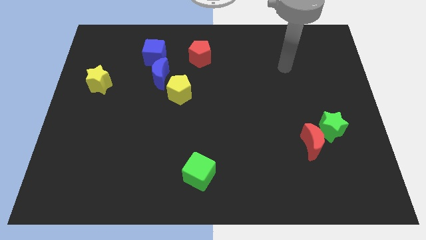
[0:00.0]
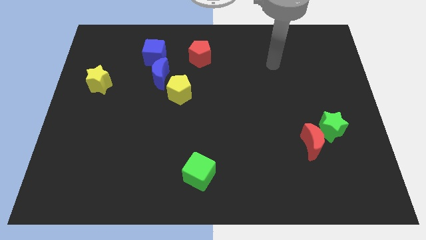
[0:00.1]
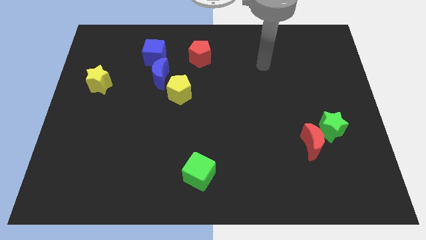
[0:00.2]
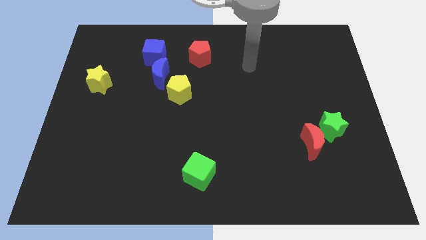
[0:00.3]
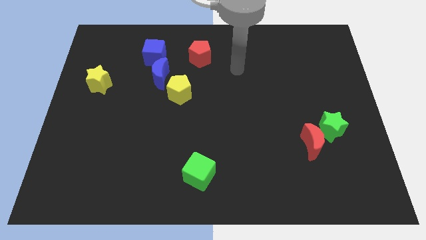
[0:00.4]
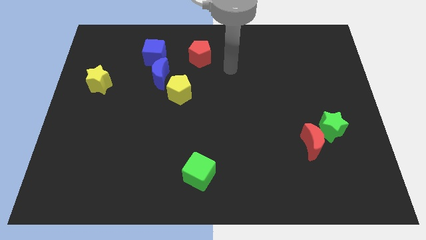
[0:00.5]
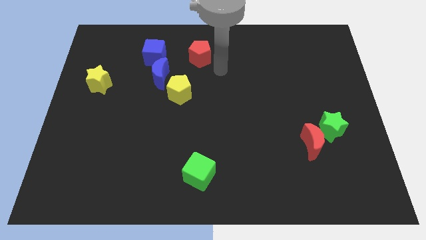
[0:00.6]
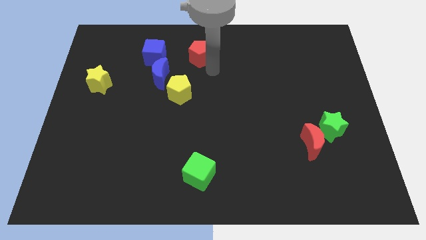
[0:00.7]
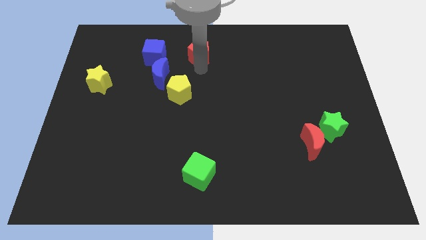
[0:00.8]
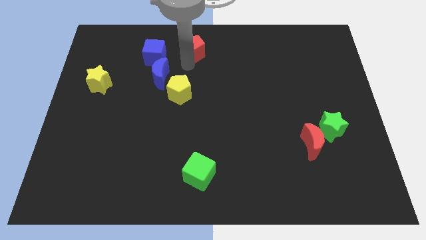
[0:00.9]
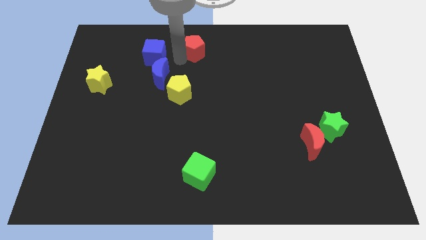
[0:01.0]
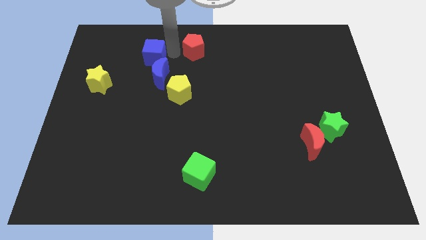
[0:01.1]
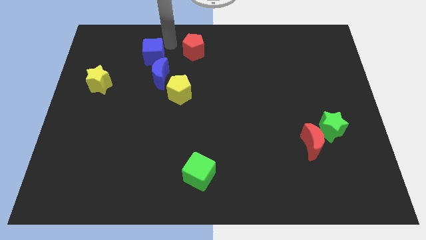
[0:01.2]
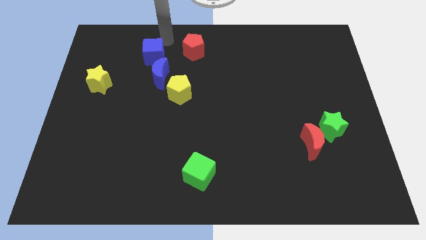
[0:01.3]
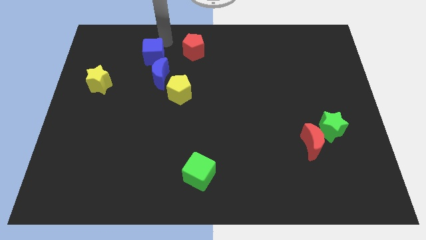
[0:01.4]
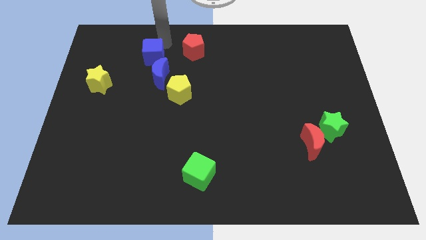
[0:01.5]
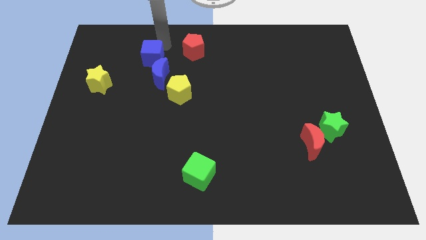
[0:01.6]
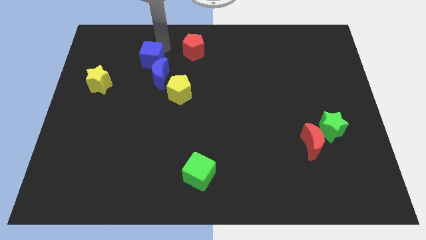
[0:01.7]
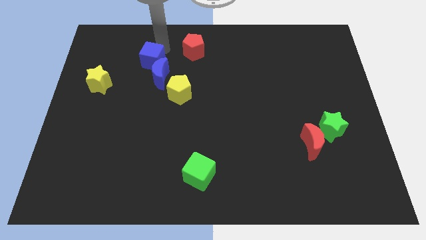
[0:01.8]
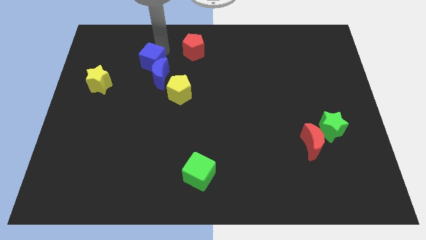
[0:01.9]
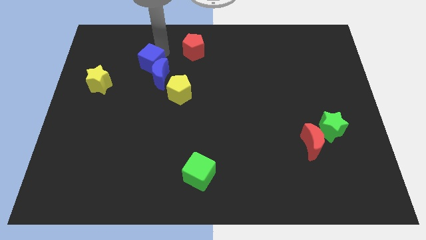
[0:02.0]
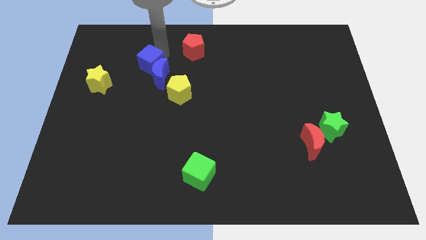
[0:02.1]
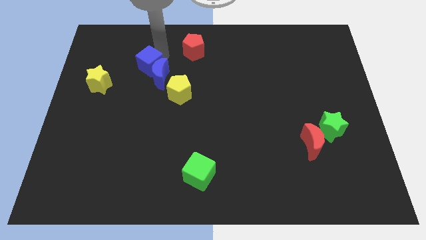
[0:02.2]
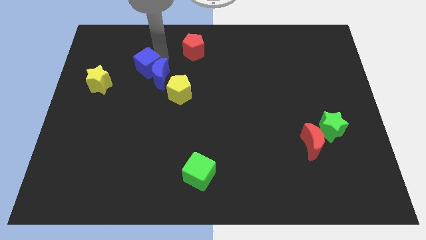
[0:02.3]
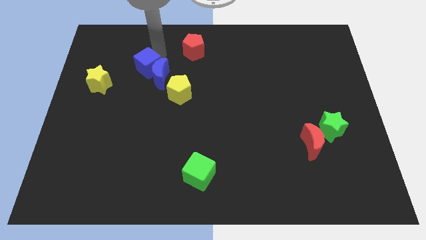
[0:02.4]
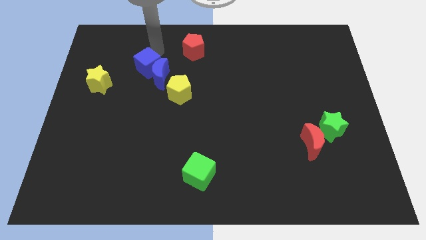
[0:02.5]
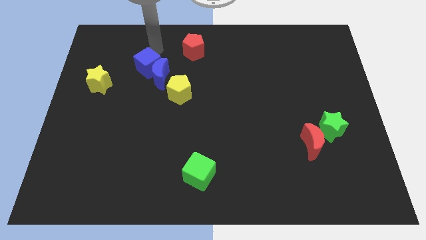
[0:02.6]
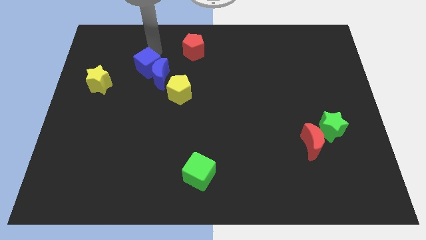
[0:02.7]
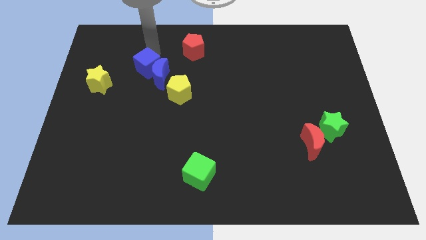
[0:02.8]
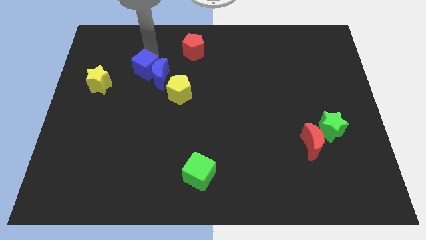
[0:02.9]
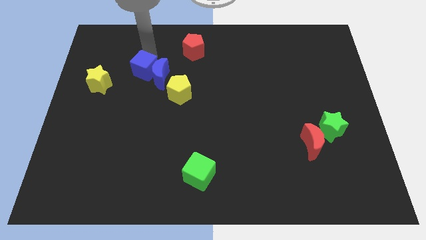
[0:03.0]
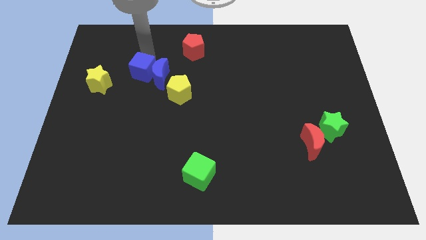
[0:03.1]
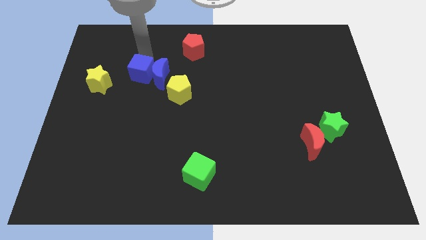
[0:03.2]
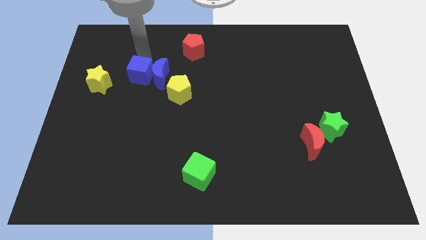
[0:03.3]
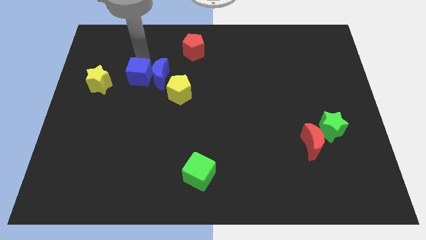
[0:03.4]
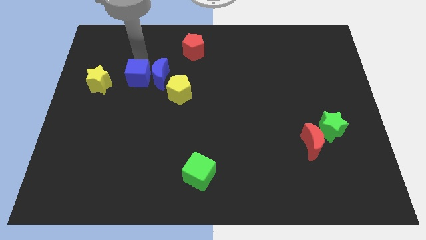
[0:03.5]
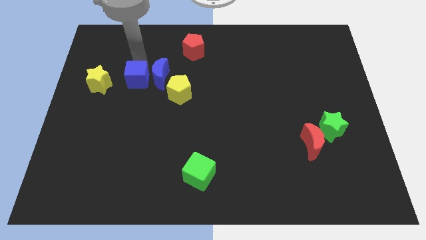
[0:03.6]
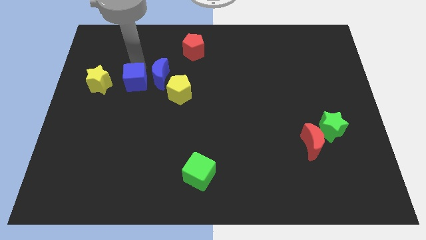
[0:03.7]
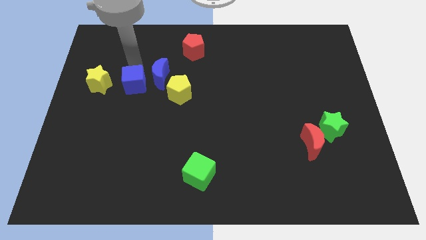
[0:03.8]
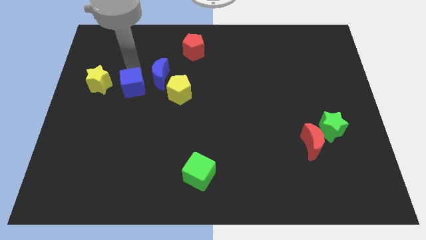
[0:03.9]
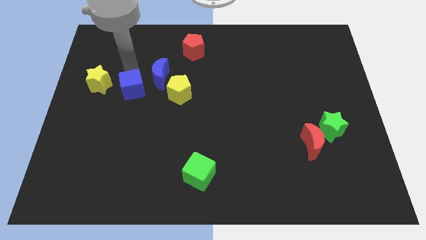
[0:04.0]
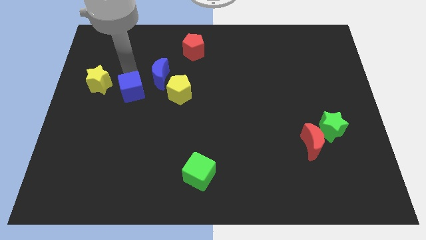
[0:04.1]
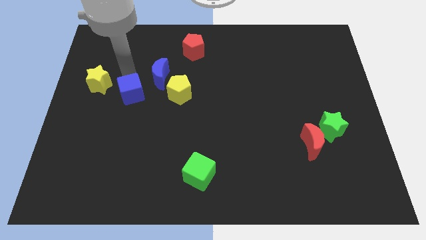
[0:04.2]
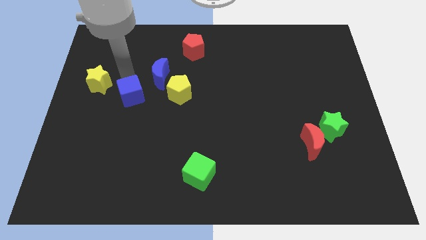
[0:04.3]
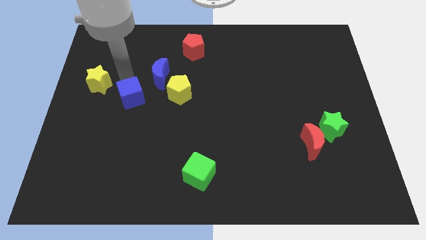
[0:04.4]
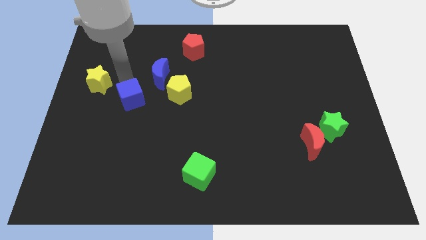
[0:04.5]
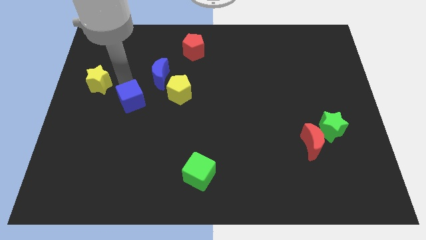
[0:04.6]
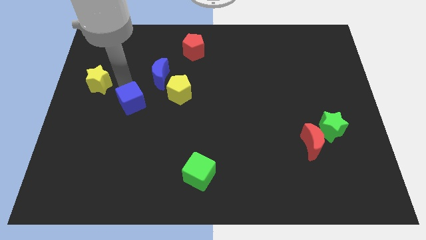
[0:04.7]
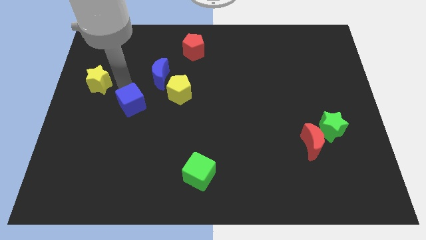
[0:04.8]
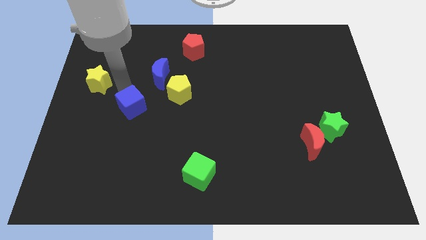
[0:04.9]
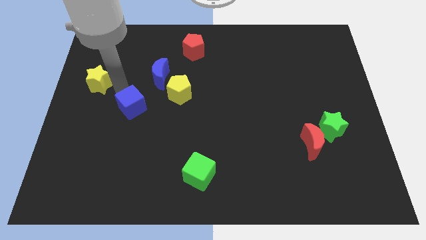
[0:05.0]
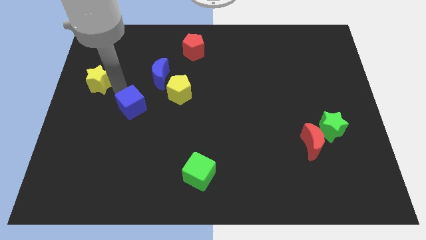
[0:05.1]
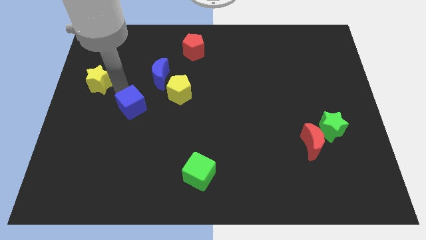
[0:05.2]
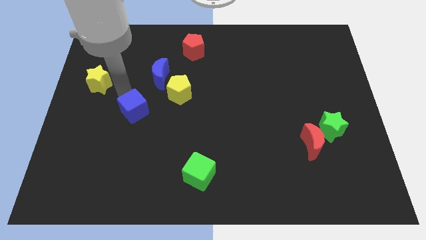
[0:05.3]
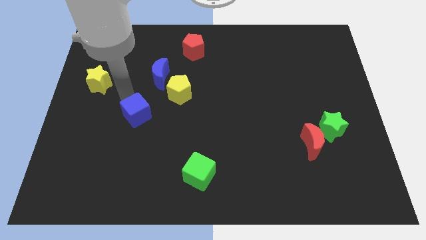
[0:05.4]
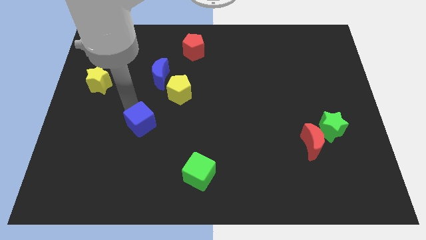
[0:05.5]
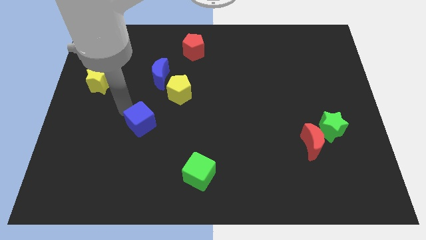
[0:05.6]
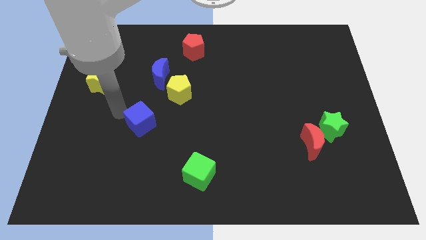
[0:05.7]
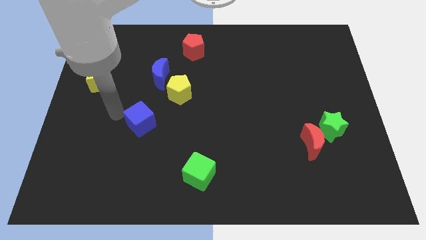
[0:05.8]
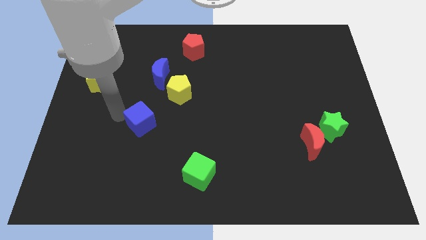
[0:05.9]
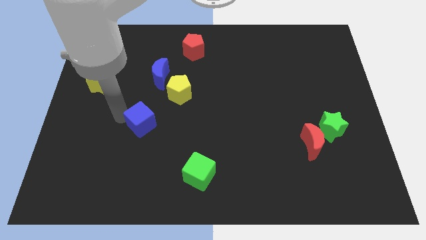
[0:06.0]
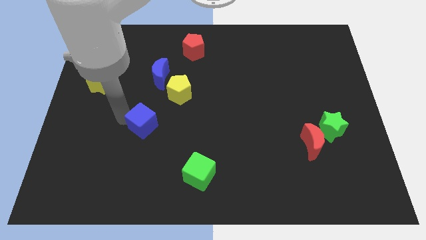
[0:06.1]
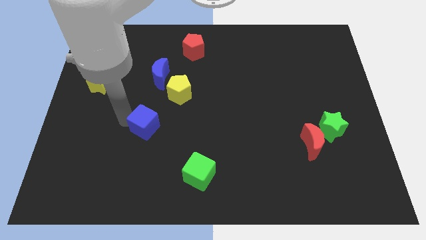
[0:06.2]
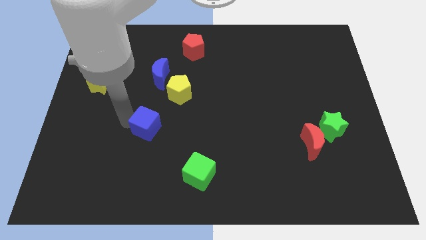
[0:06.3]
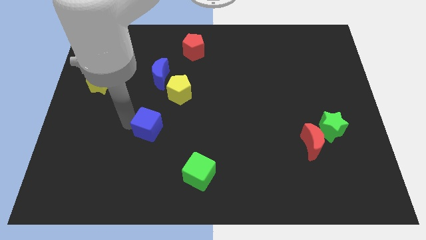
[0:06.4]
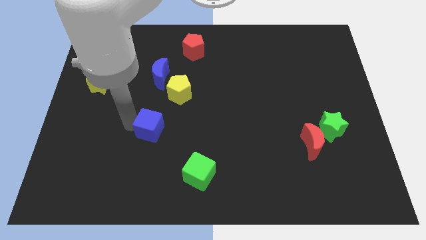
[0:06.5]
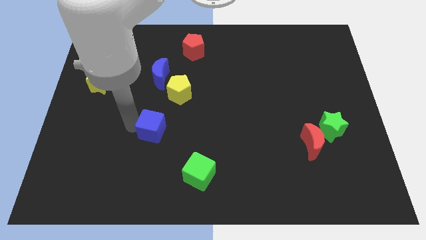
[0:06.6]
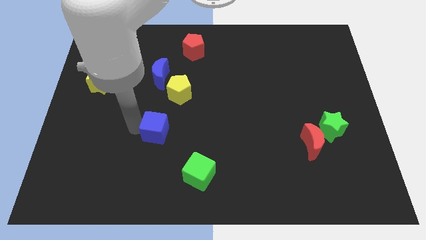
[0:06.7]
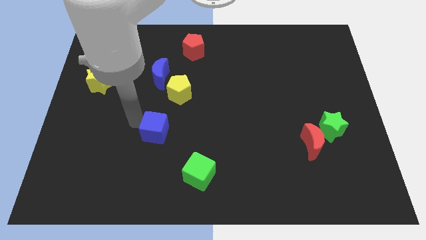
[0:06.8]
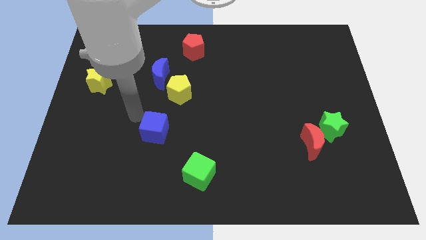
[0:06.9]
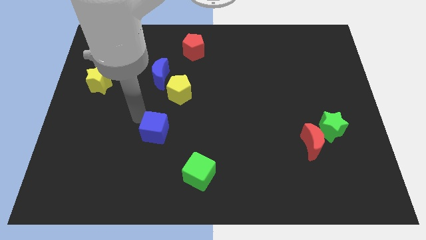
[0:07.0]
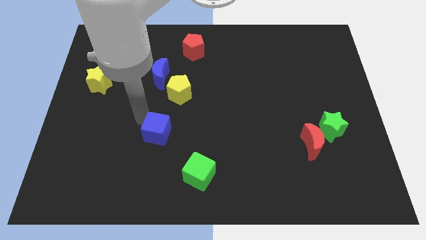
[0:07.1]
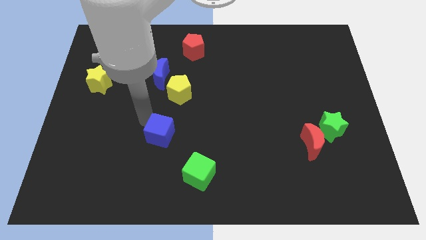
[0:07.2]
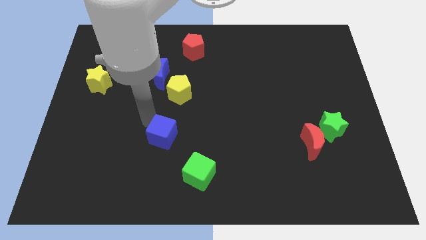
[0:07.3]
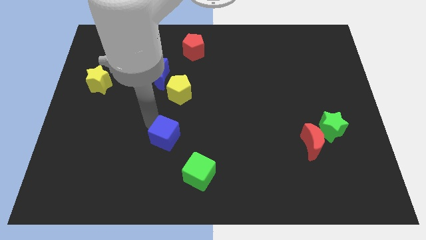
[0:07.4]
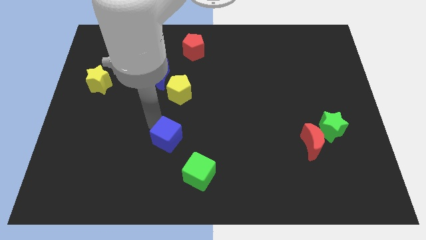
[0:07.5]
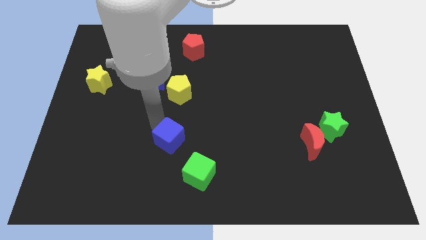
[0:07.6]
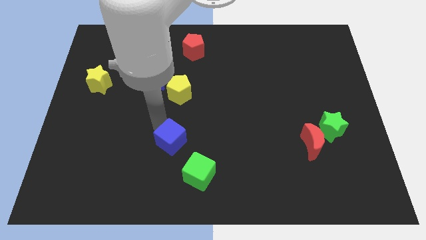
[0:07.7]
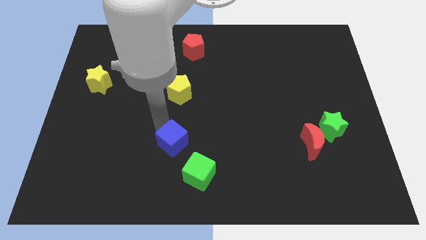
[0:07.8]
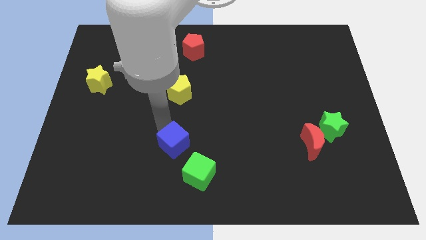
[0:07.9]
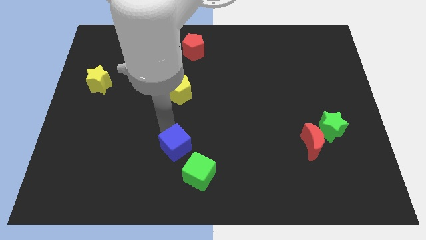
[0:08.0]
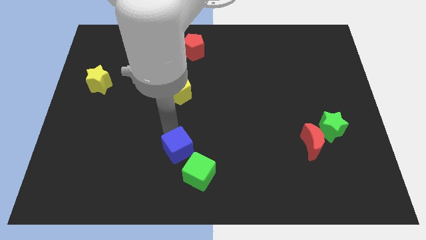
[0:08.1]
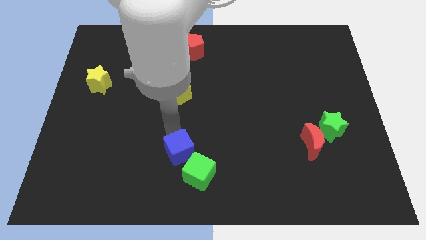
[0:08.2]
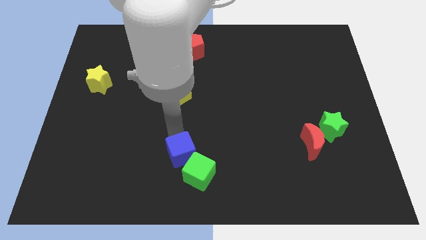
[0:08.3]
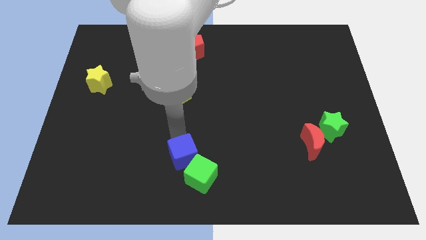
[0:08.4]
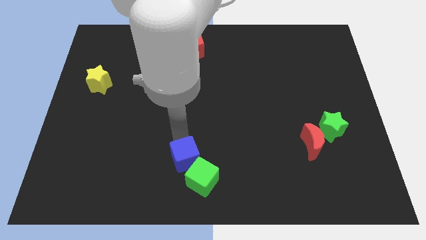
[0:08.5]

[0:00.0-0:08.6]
move the blue cube to the bottom side
